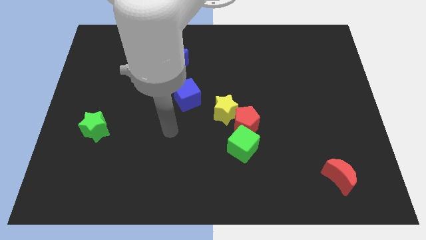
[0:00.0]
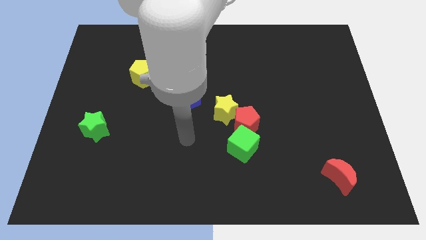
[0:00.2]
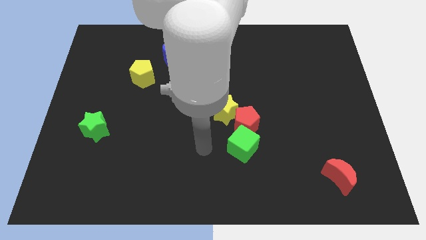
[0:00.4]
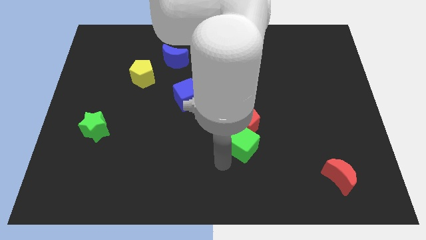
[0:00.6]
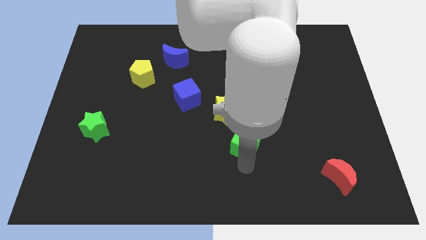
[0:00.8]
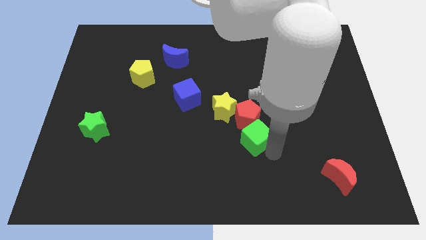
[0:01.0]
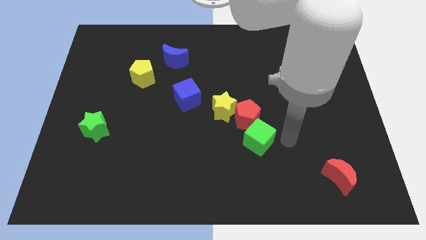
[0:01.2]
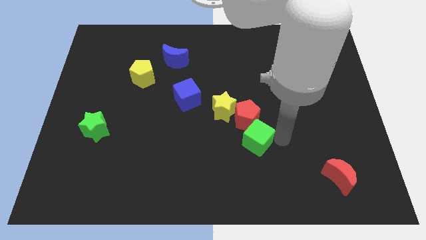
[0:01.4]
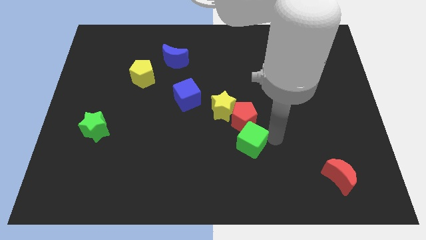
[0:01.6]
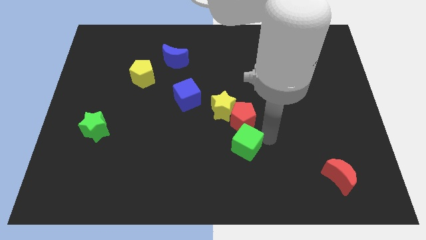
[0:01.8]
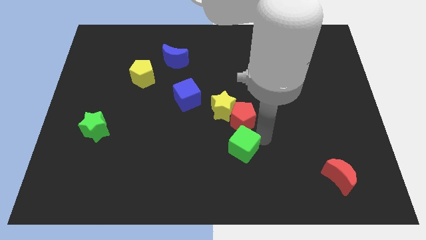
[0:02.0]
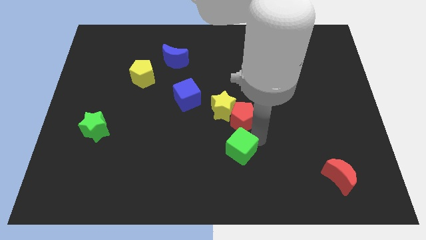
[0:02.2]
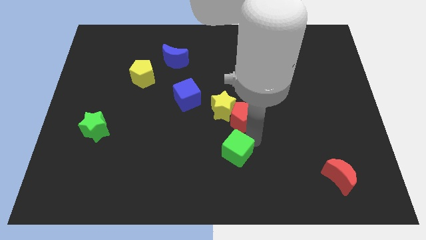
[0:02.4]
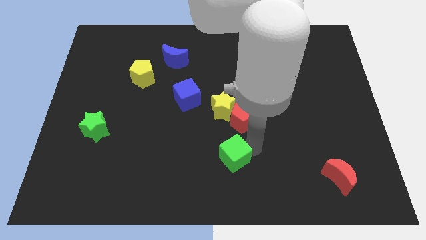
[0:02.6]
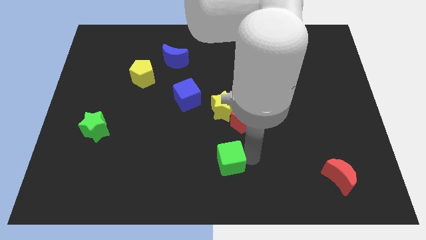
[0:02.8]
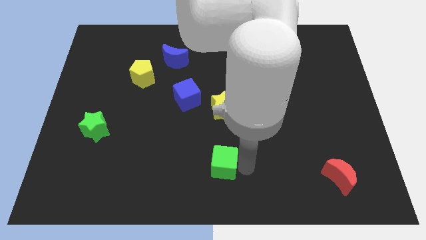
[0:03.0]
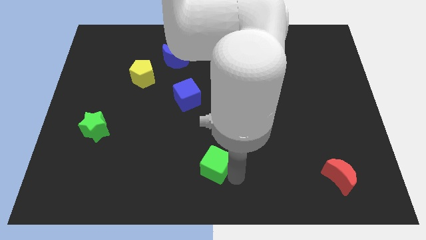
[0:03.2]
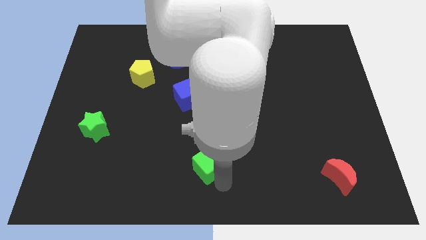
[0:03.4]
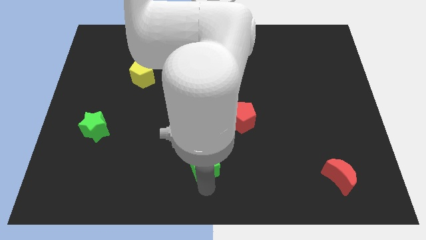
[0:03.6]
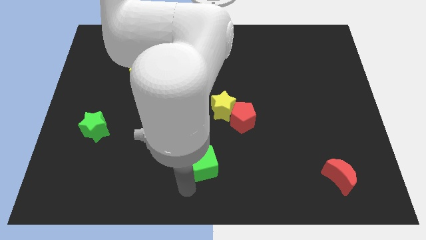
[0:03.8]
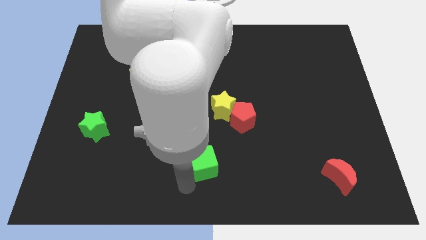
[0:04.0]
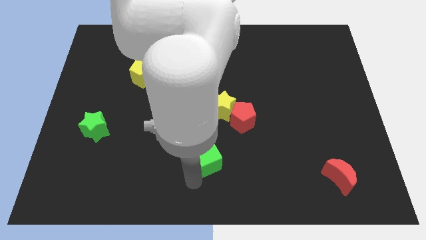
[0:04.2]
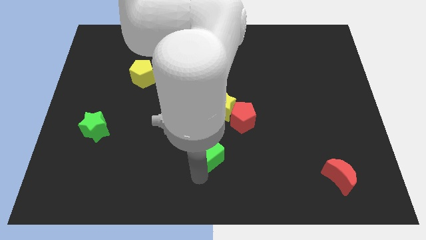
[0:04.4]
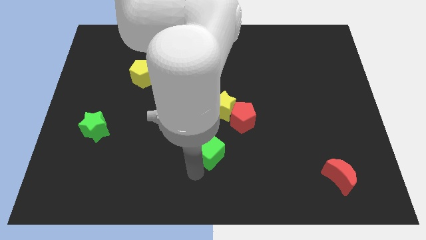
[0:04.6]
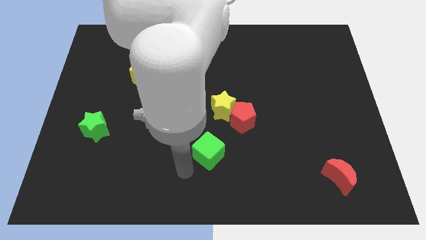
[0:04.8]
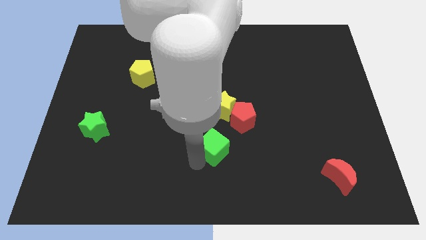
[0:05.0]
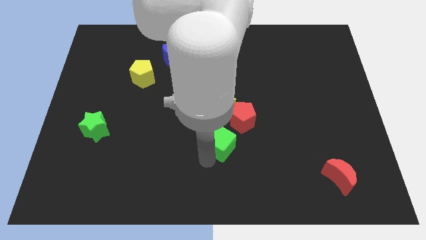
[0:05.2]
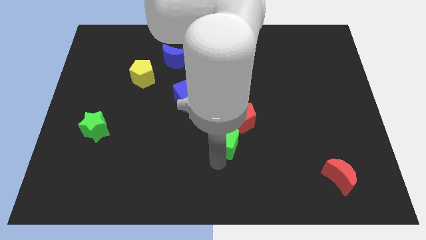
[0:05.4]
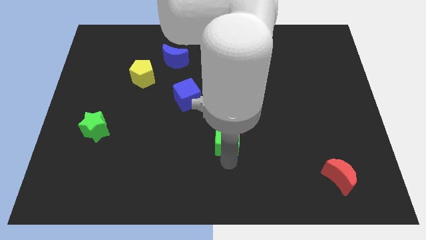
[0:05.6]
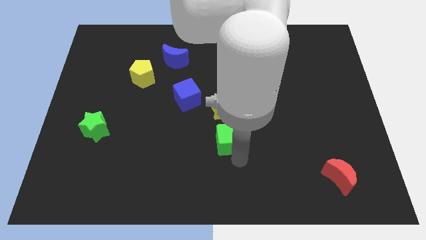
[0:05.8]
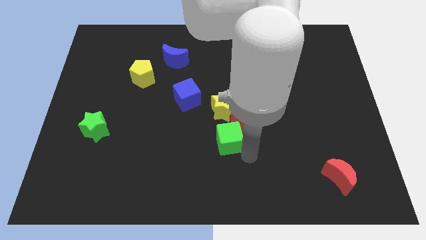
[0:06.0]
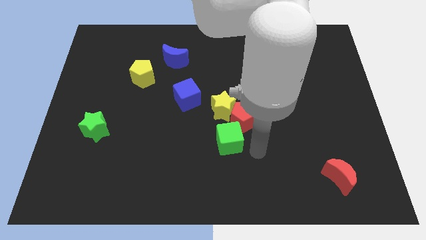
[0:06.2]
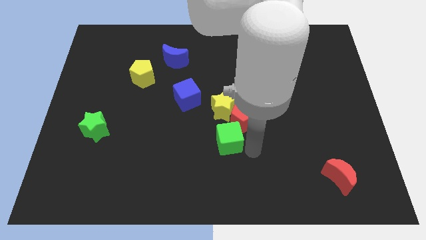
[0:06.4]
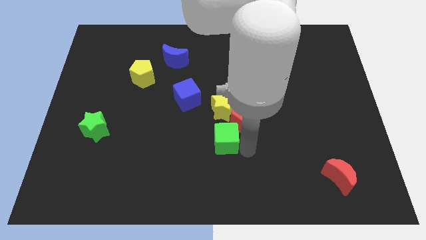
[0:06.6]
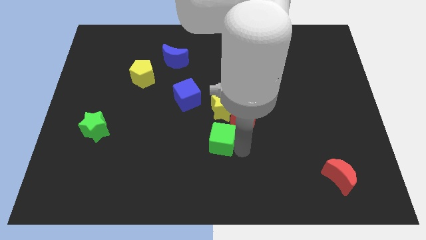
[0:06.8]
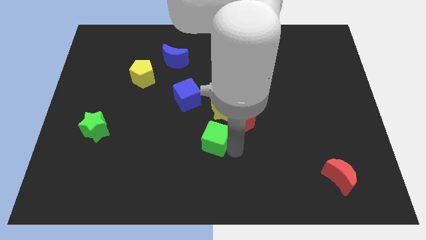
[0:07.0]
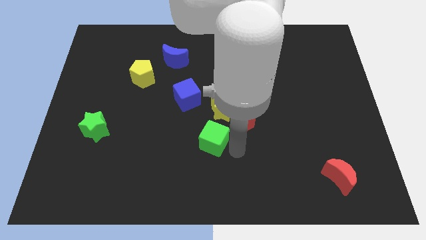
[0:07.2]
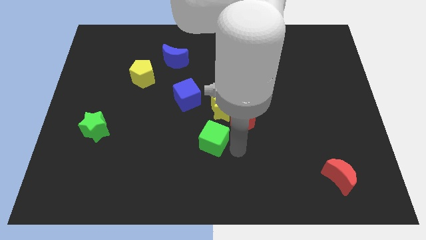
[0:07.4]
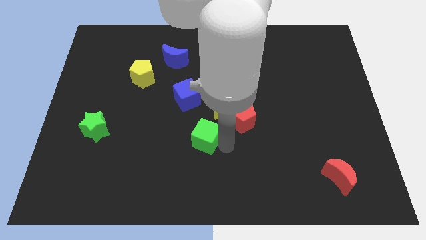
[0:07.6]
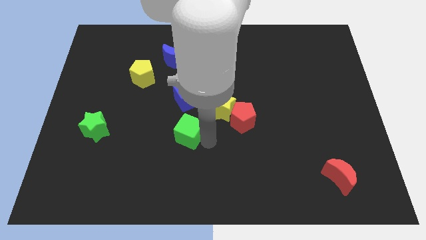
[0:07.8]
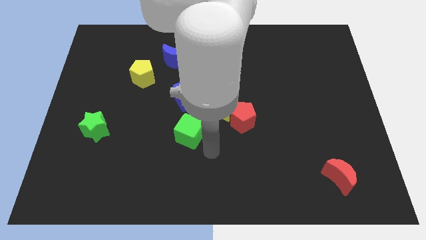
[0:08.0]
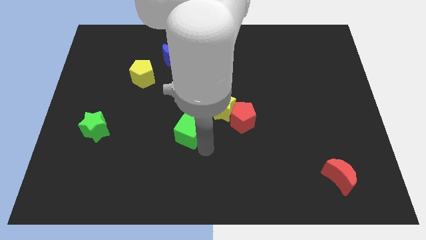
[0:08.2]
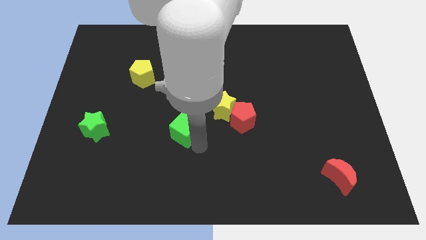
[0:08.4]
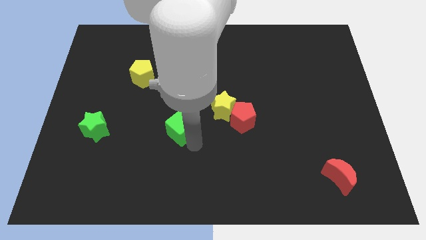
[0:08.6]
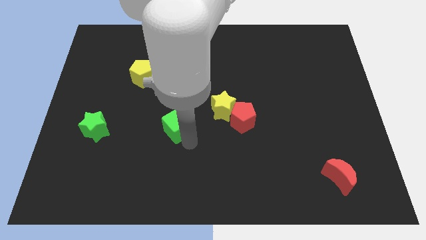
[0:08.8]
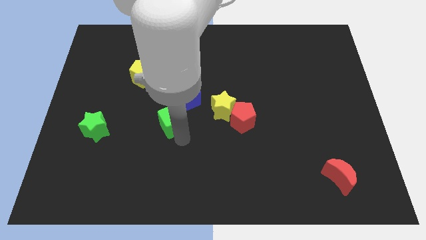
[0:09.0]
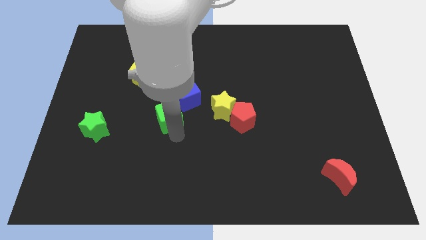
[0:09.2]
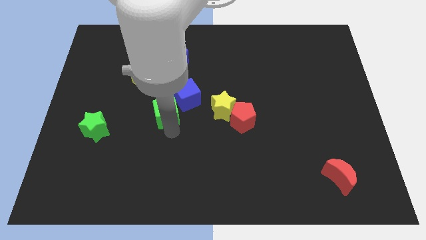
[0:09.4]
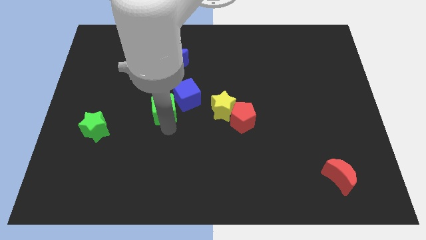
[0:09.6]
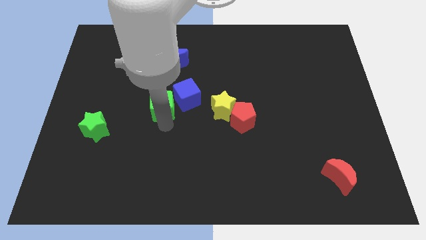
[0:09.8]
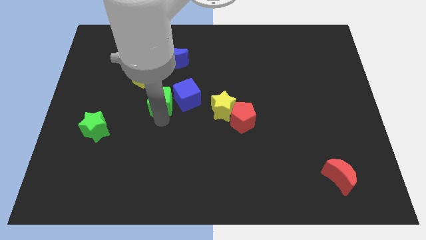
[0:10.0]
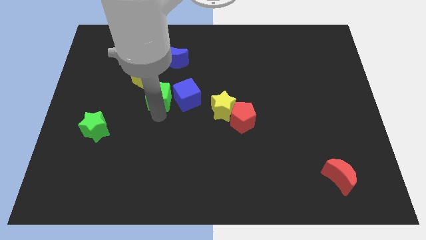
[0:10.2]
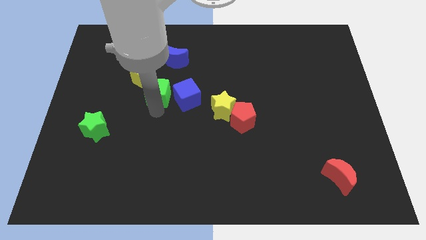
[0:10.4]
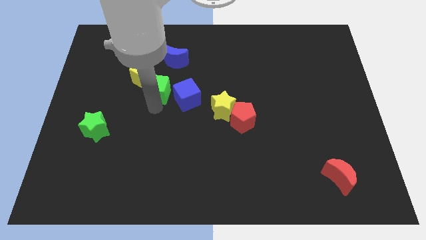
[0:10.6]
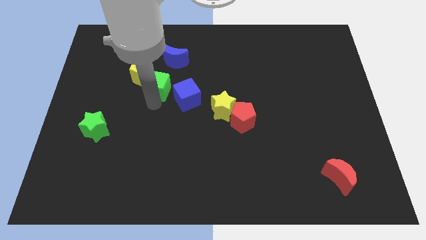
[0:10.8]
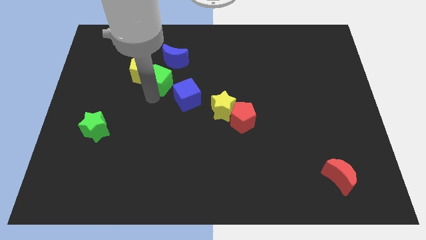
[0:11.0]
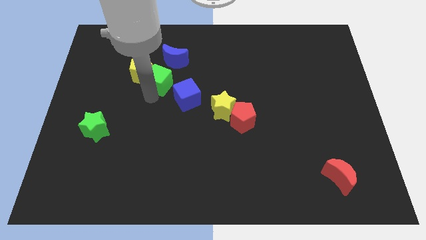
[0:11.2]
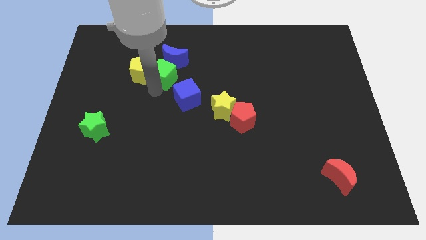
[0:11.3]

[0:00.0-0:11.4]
slide the green cube next to the blue moon
